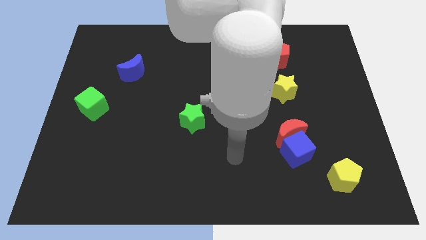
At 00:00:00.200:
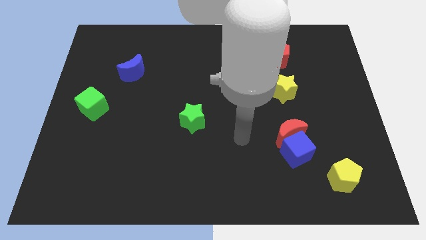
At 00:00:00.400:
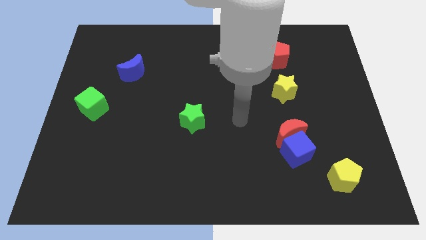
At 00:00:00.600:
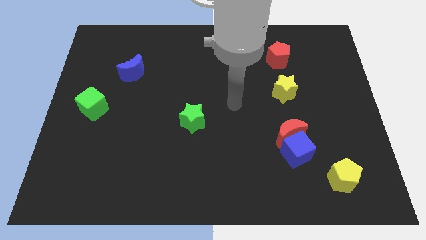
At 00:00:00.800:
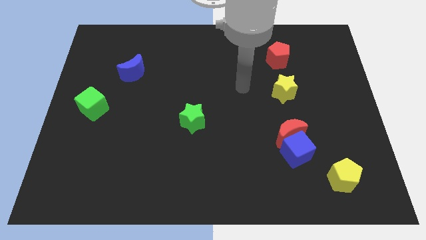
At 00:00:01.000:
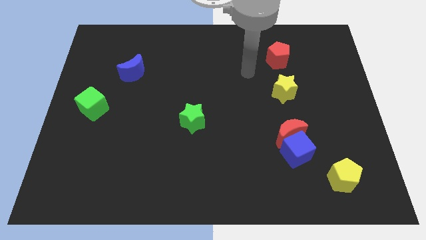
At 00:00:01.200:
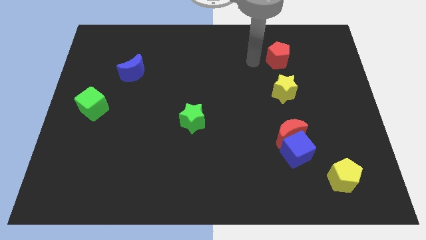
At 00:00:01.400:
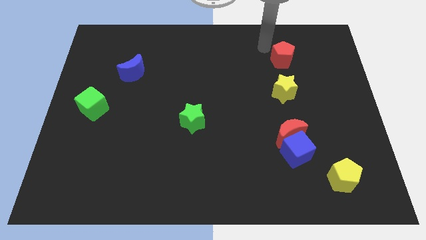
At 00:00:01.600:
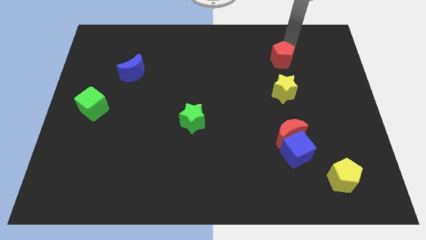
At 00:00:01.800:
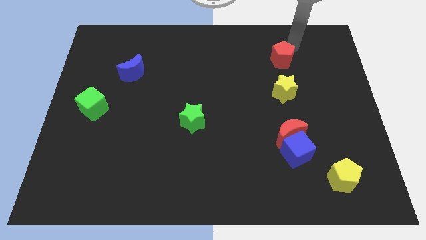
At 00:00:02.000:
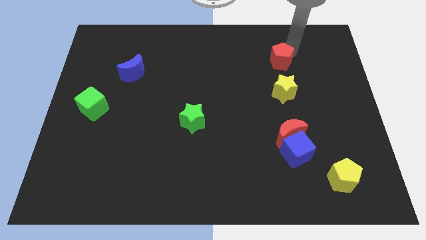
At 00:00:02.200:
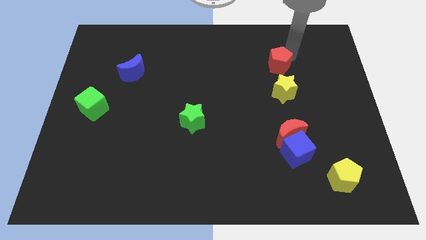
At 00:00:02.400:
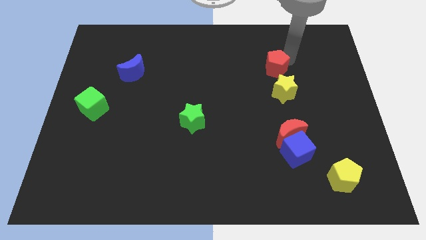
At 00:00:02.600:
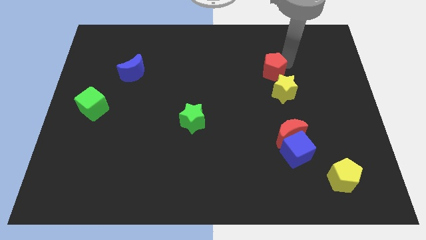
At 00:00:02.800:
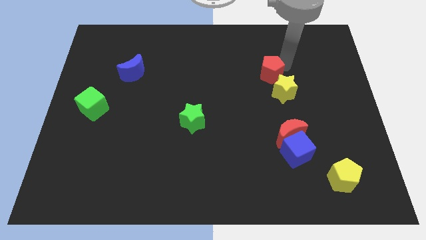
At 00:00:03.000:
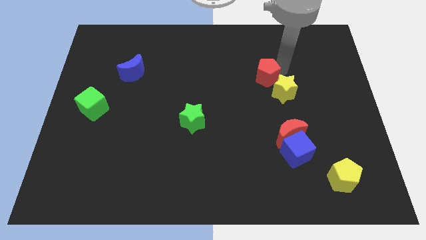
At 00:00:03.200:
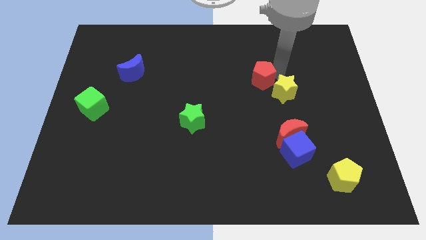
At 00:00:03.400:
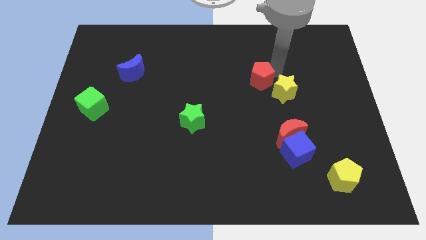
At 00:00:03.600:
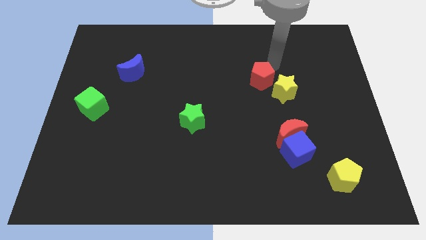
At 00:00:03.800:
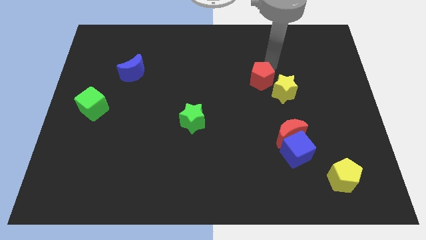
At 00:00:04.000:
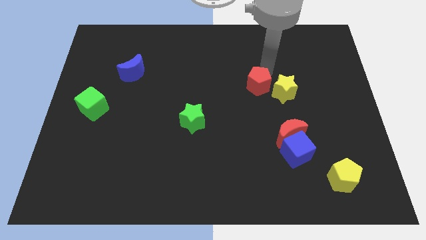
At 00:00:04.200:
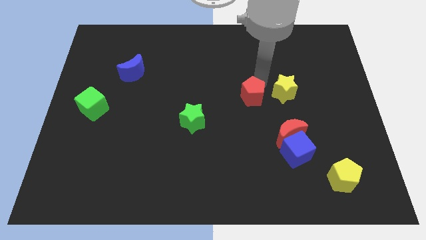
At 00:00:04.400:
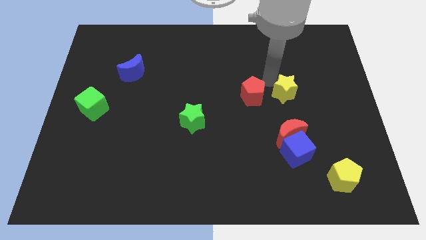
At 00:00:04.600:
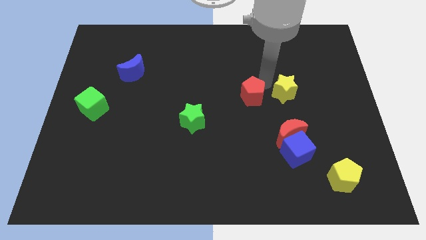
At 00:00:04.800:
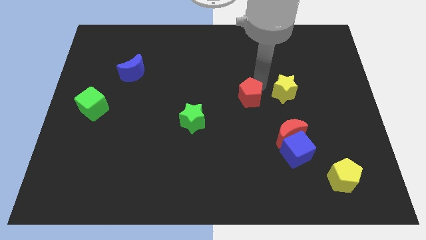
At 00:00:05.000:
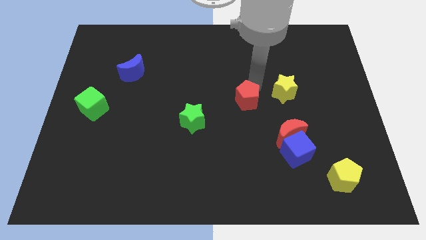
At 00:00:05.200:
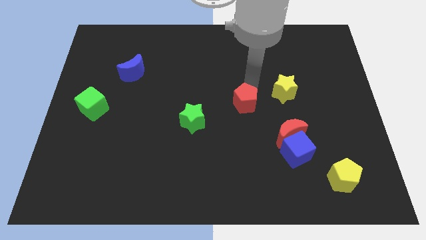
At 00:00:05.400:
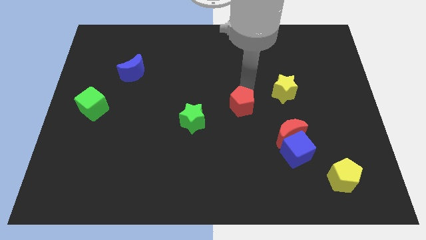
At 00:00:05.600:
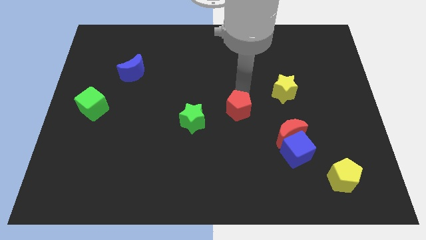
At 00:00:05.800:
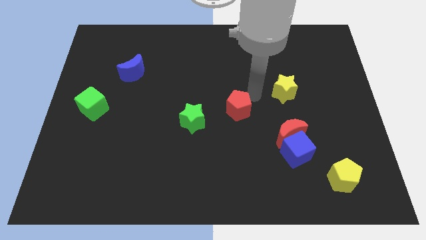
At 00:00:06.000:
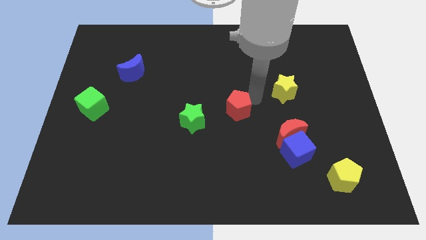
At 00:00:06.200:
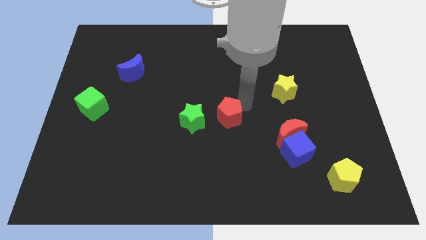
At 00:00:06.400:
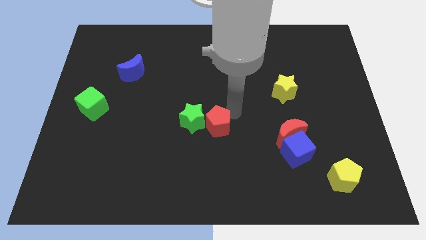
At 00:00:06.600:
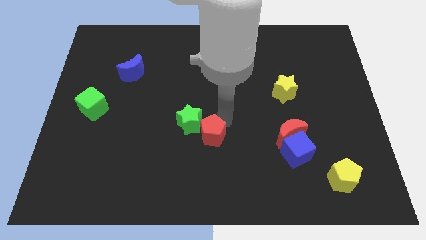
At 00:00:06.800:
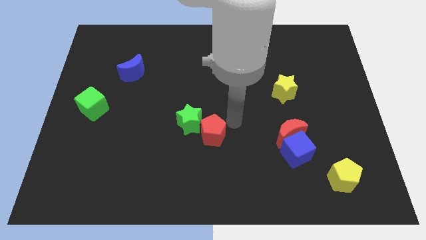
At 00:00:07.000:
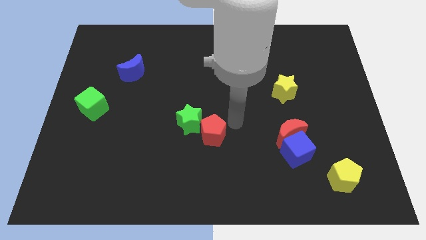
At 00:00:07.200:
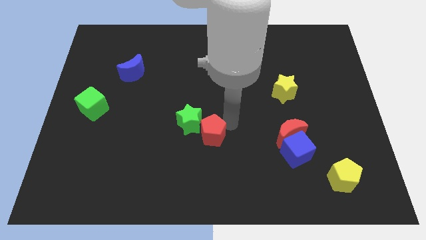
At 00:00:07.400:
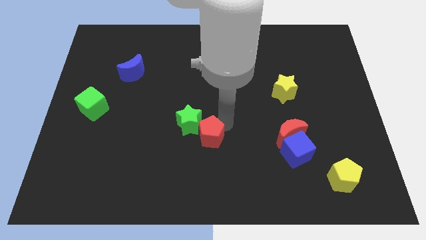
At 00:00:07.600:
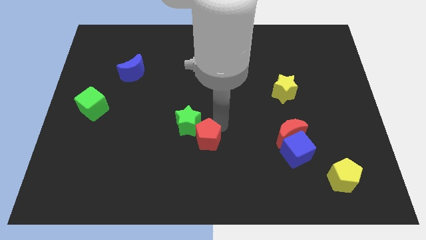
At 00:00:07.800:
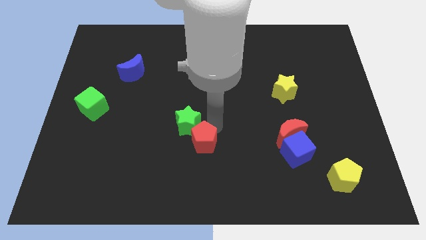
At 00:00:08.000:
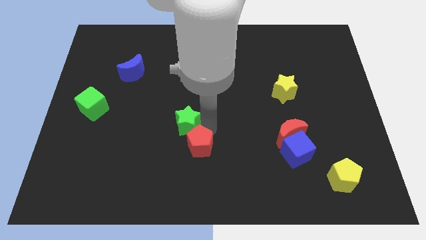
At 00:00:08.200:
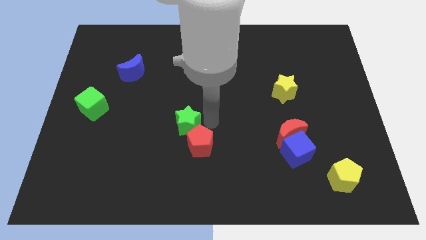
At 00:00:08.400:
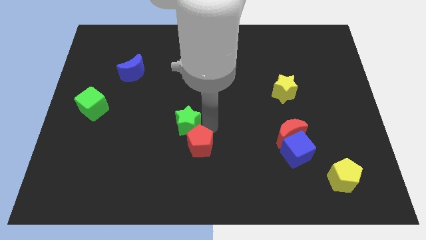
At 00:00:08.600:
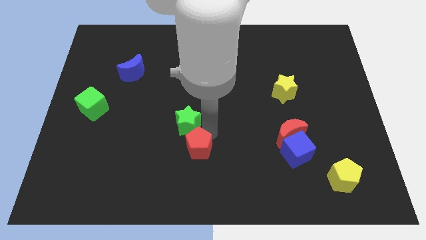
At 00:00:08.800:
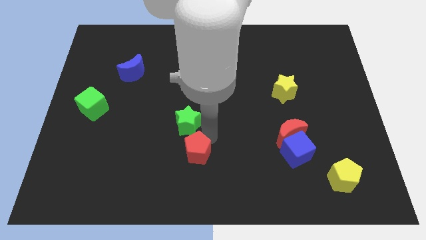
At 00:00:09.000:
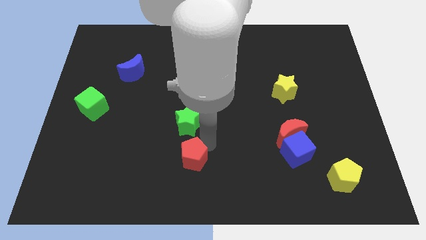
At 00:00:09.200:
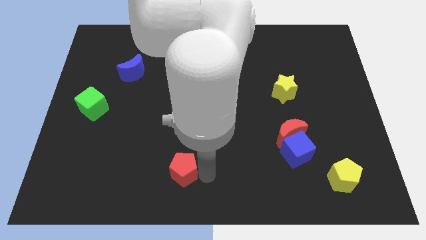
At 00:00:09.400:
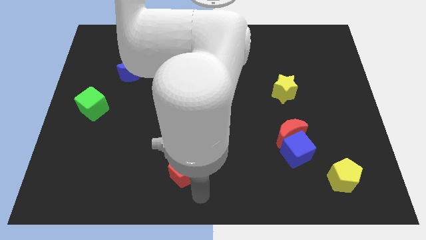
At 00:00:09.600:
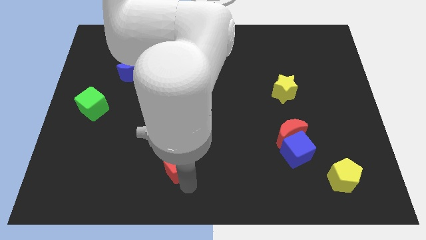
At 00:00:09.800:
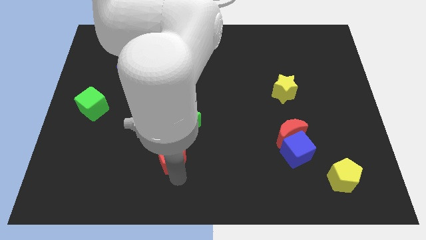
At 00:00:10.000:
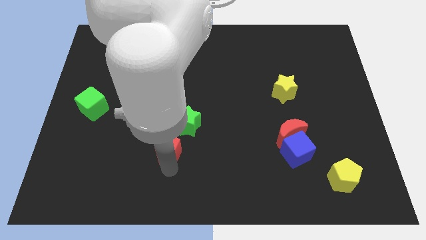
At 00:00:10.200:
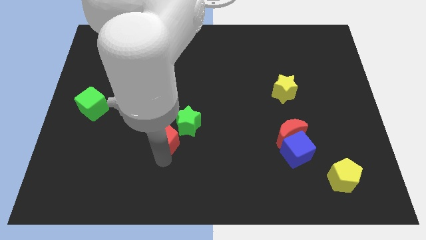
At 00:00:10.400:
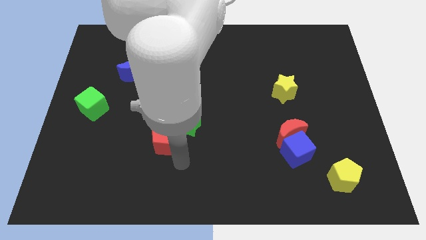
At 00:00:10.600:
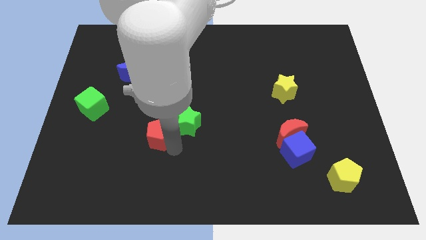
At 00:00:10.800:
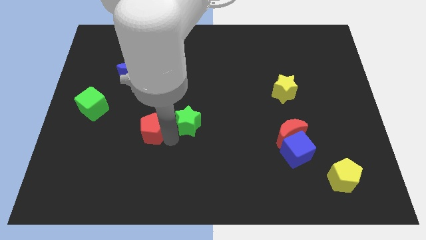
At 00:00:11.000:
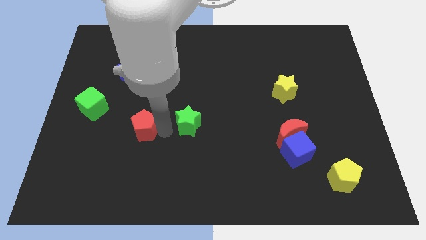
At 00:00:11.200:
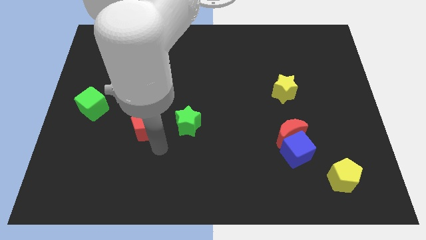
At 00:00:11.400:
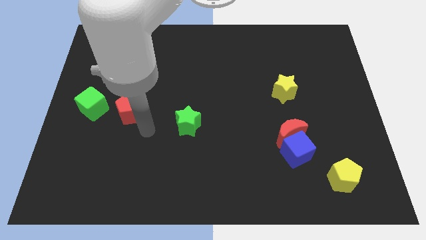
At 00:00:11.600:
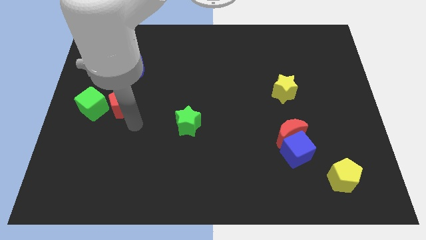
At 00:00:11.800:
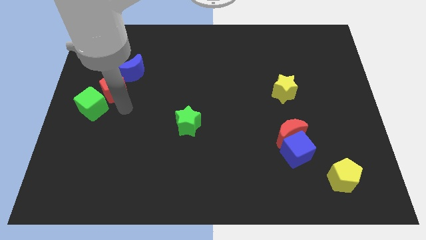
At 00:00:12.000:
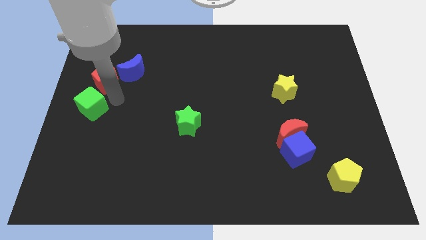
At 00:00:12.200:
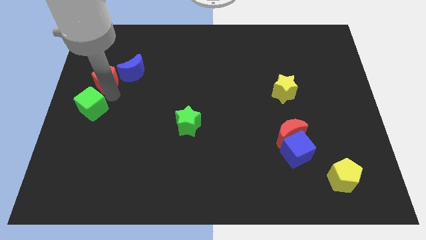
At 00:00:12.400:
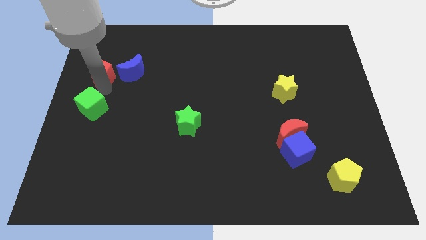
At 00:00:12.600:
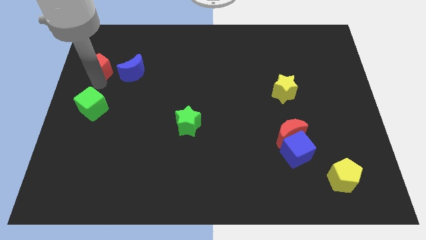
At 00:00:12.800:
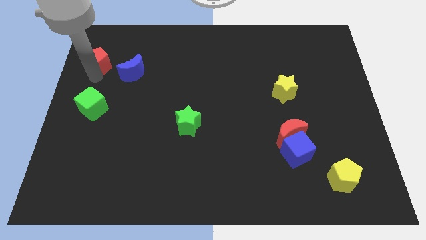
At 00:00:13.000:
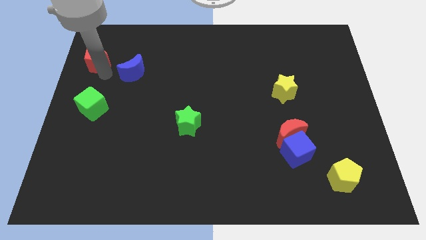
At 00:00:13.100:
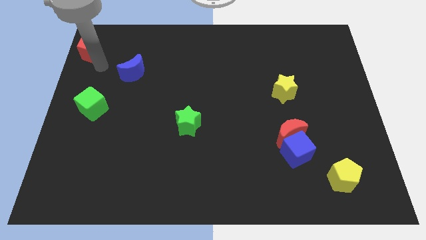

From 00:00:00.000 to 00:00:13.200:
slide the red pentagon to the top left corner
